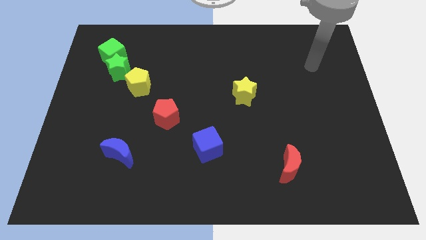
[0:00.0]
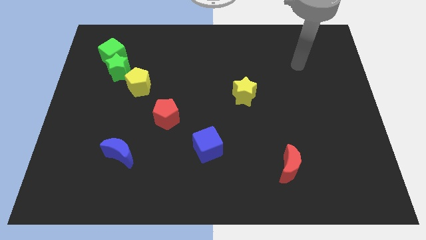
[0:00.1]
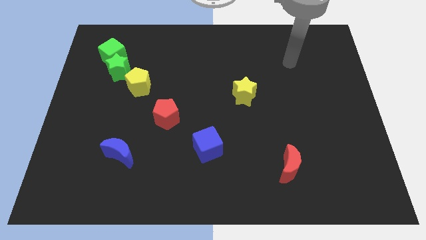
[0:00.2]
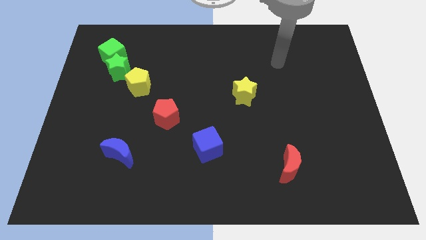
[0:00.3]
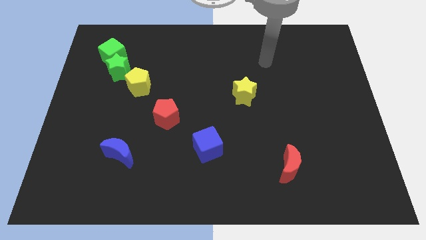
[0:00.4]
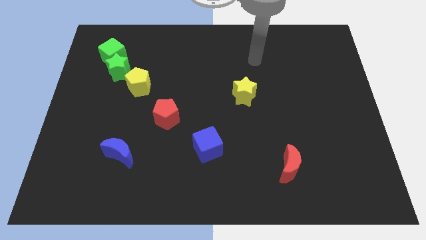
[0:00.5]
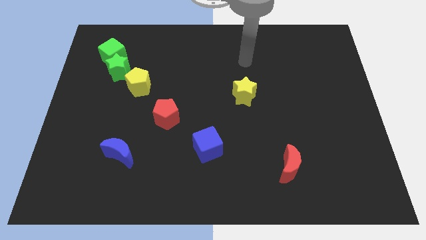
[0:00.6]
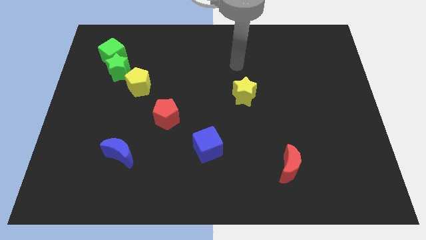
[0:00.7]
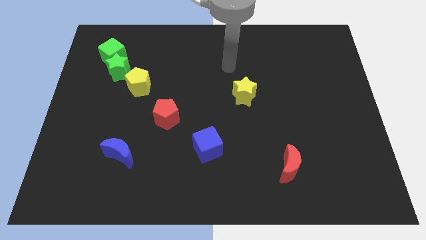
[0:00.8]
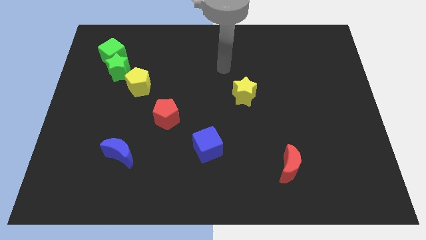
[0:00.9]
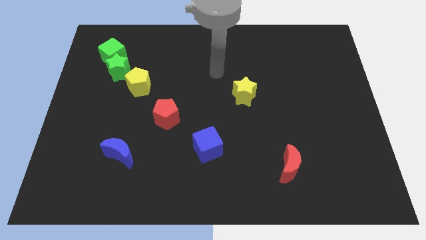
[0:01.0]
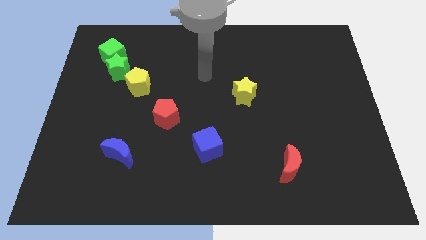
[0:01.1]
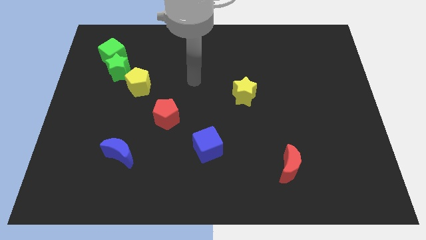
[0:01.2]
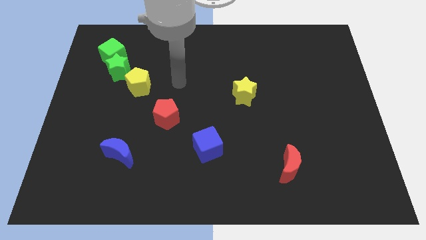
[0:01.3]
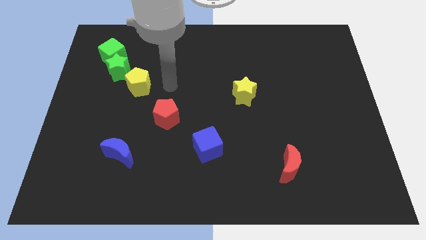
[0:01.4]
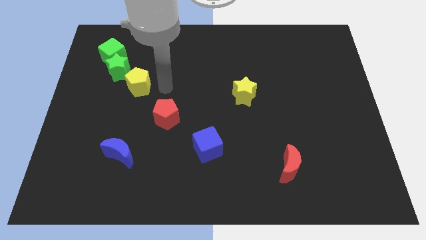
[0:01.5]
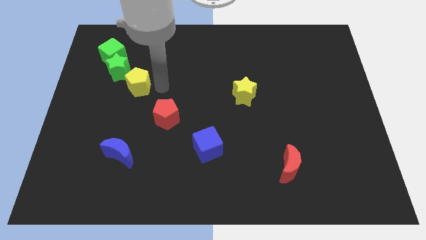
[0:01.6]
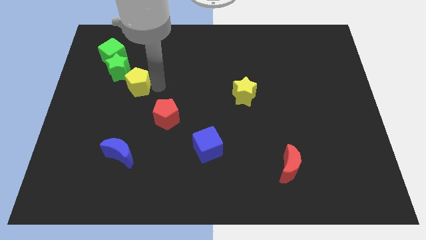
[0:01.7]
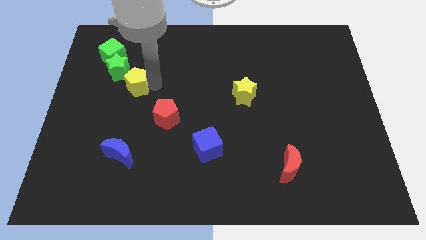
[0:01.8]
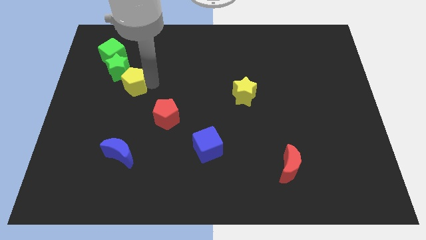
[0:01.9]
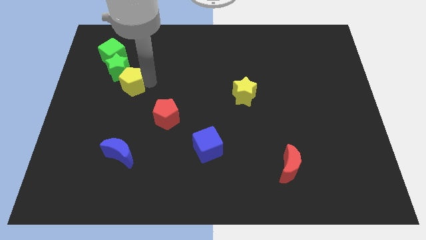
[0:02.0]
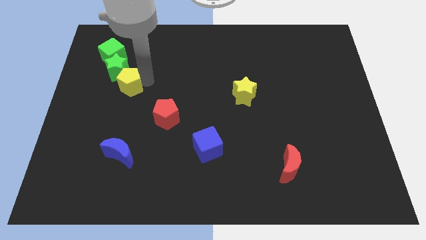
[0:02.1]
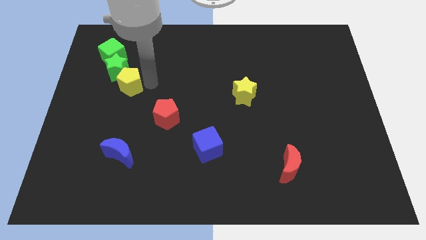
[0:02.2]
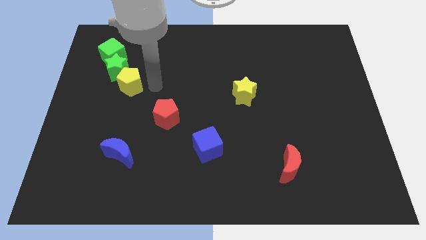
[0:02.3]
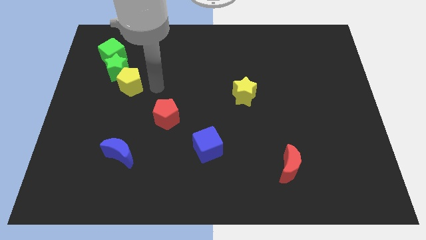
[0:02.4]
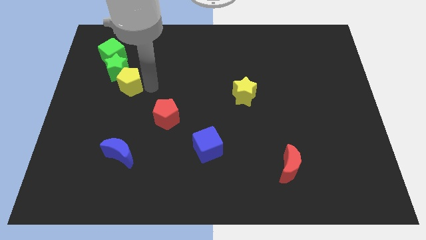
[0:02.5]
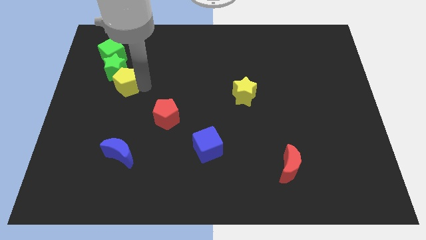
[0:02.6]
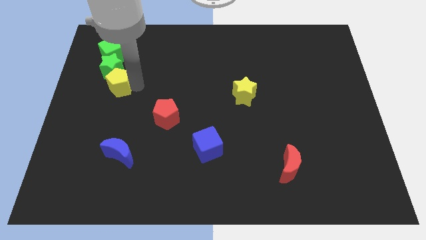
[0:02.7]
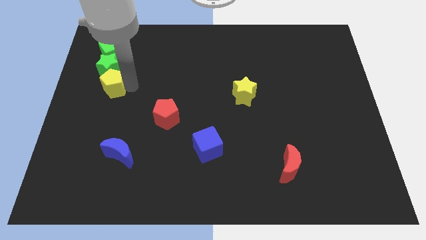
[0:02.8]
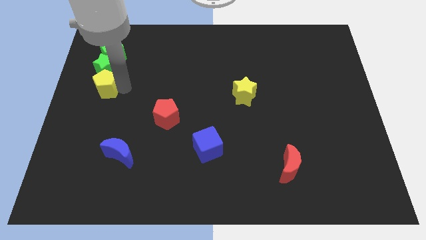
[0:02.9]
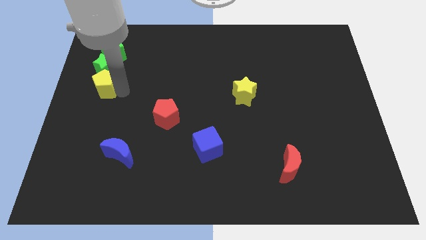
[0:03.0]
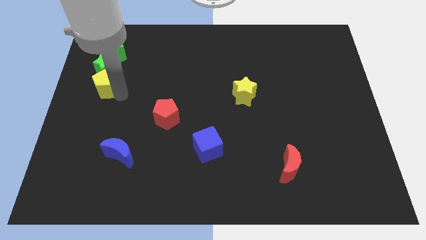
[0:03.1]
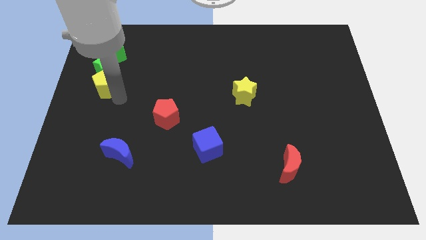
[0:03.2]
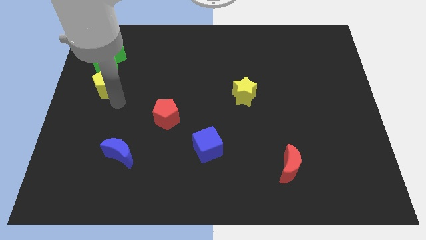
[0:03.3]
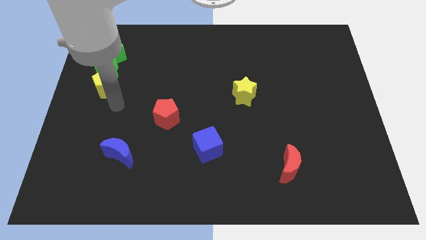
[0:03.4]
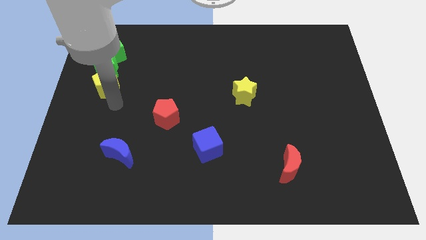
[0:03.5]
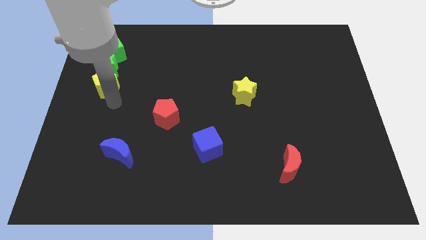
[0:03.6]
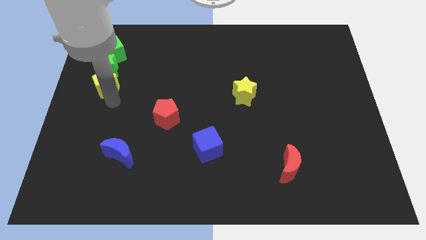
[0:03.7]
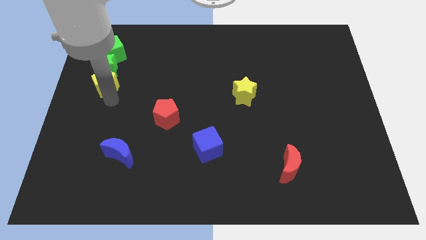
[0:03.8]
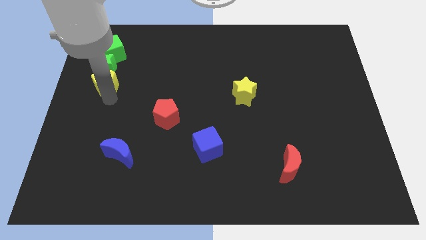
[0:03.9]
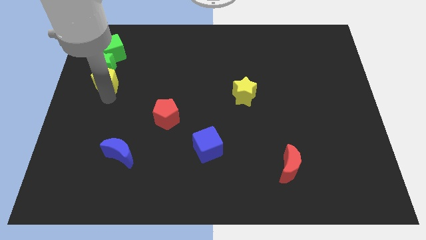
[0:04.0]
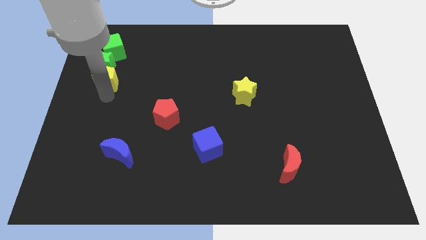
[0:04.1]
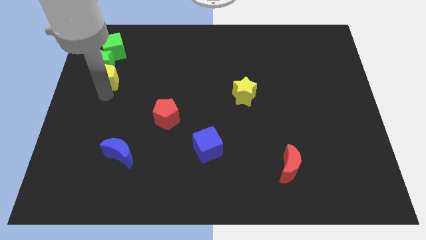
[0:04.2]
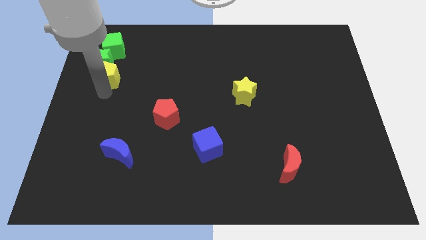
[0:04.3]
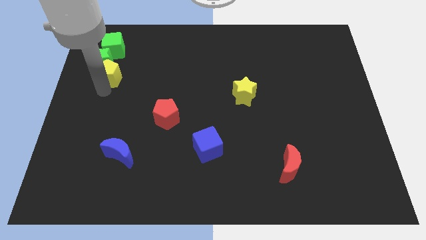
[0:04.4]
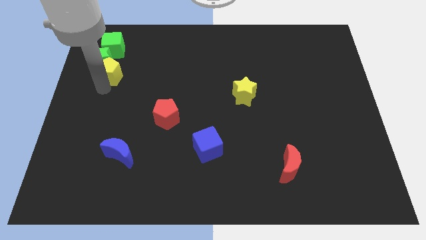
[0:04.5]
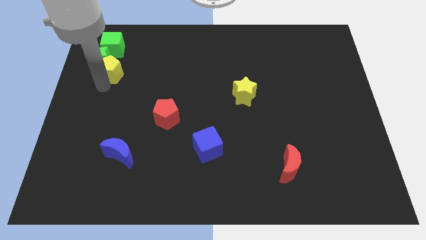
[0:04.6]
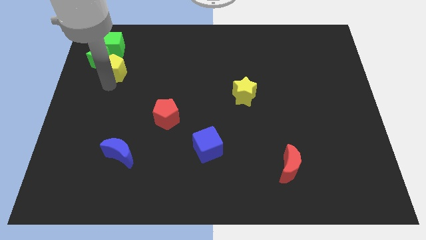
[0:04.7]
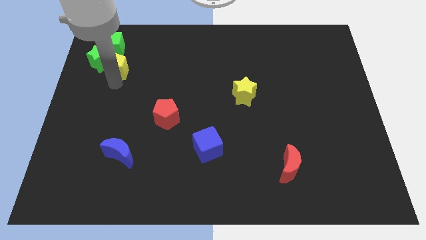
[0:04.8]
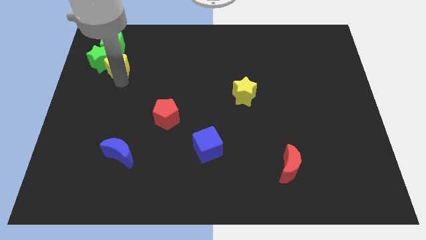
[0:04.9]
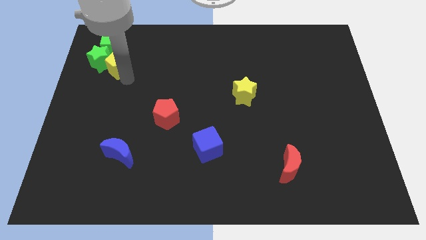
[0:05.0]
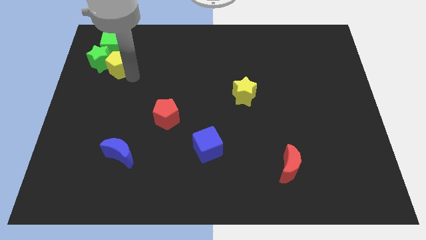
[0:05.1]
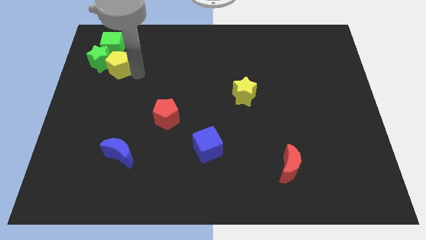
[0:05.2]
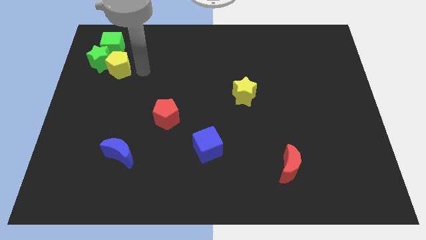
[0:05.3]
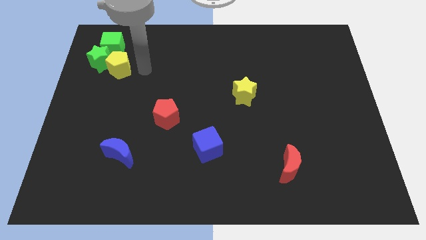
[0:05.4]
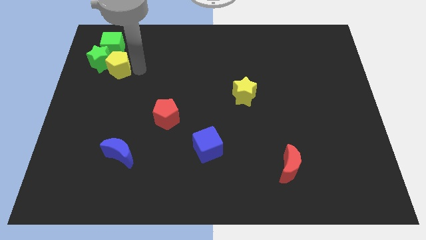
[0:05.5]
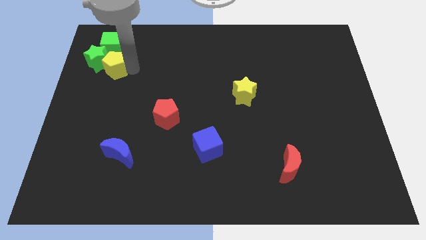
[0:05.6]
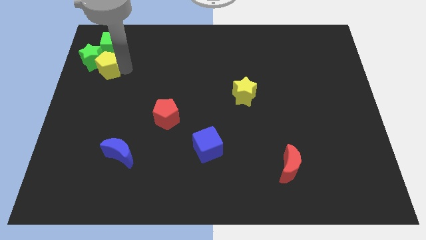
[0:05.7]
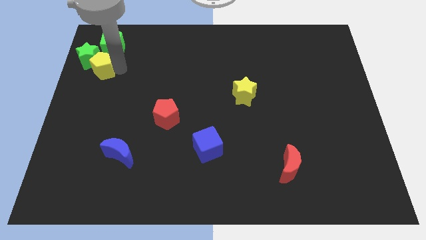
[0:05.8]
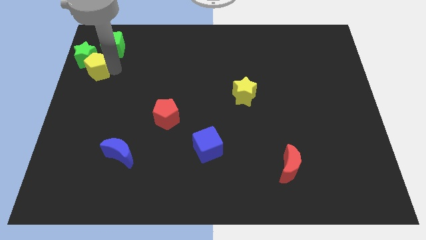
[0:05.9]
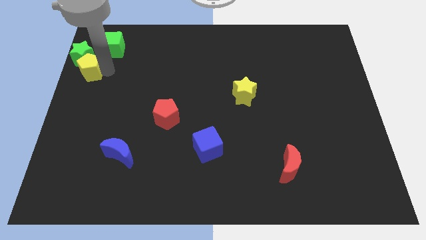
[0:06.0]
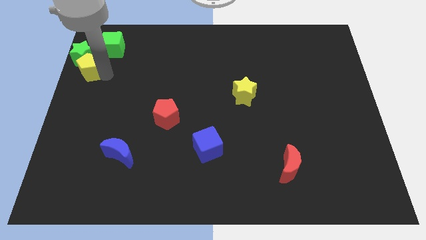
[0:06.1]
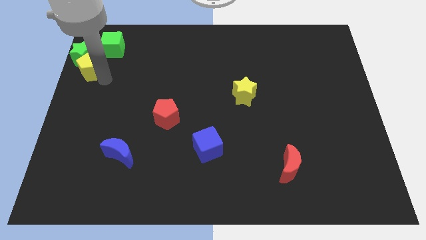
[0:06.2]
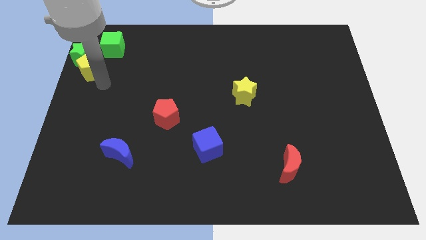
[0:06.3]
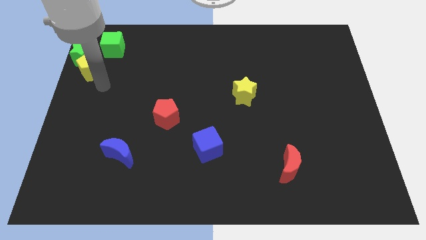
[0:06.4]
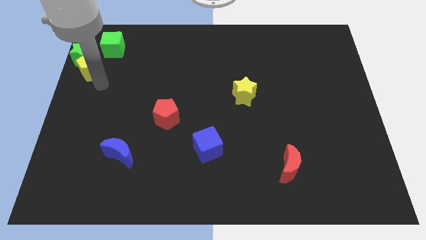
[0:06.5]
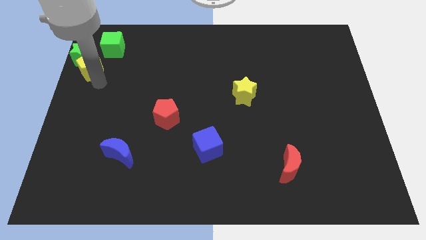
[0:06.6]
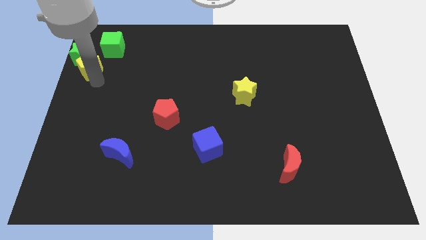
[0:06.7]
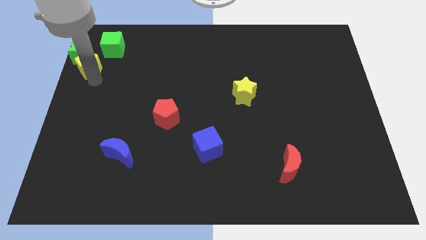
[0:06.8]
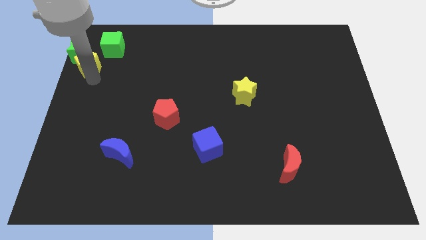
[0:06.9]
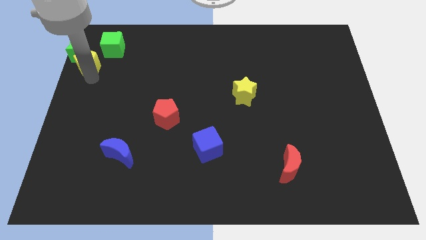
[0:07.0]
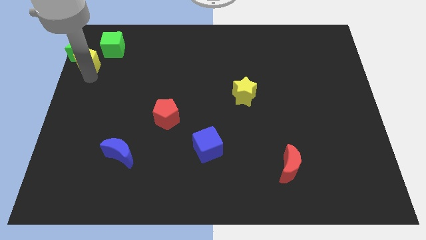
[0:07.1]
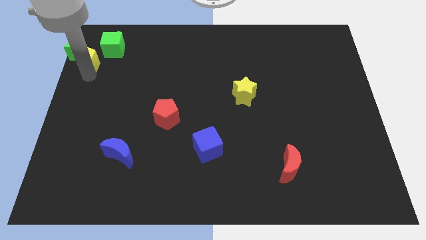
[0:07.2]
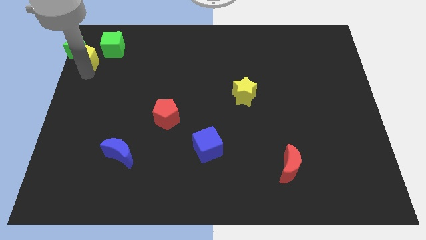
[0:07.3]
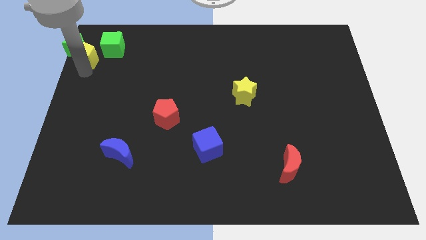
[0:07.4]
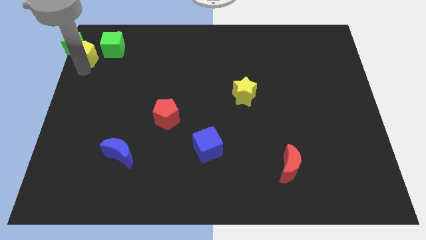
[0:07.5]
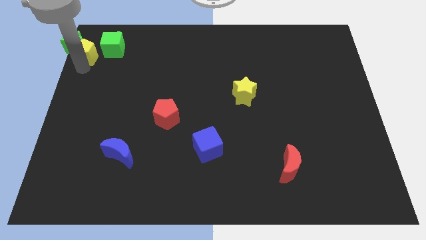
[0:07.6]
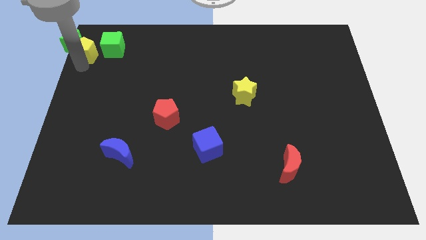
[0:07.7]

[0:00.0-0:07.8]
move the yellow pentagon to the top left
